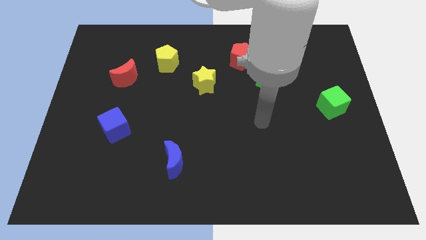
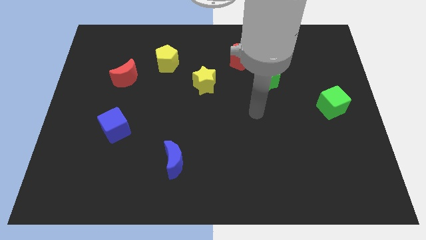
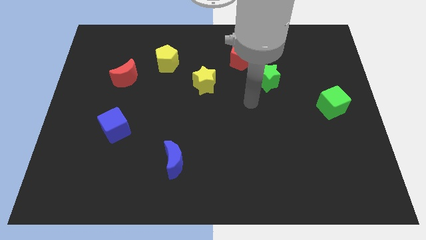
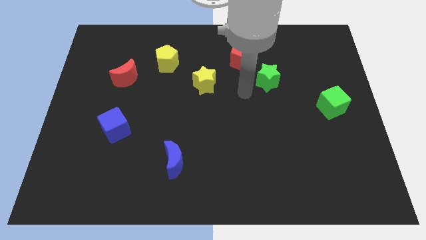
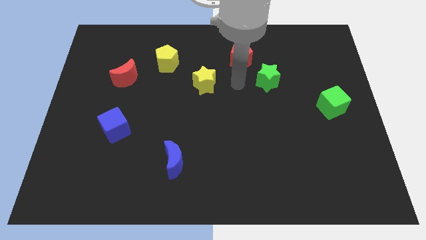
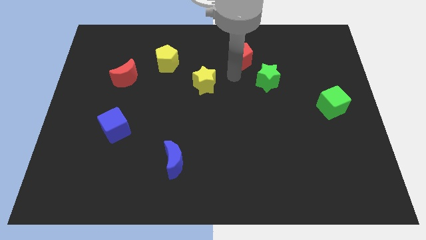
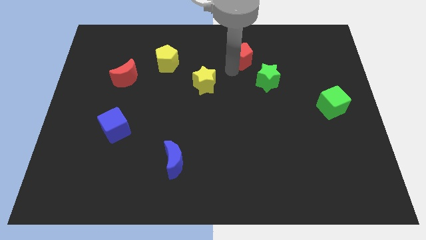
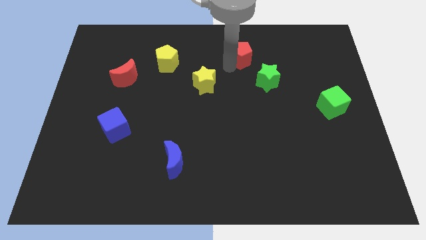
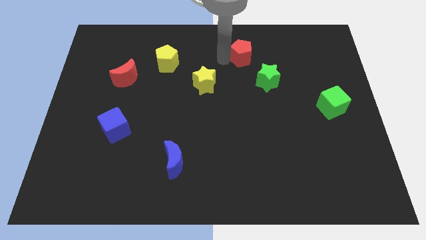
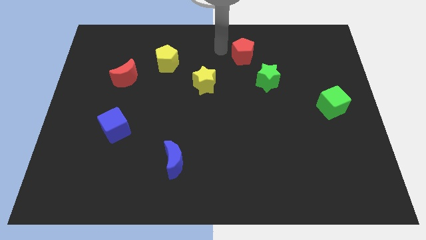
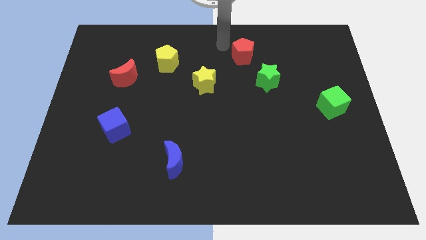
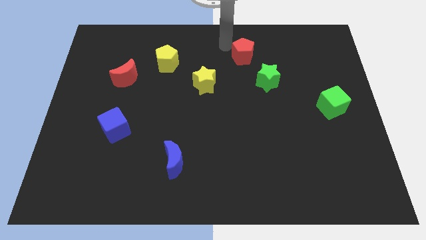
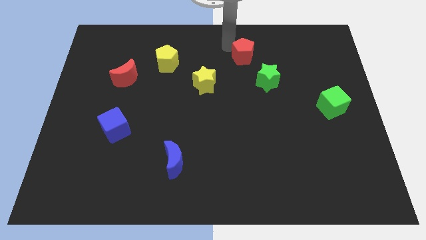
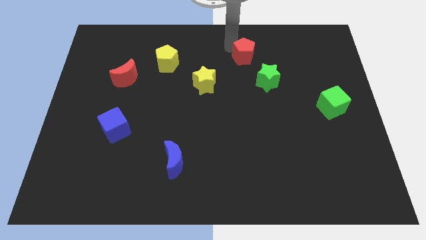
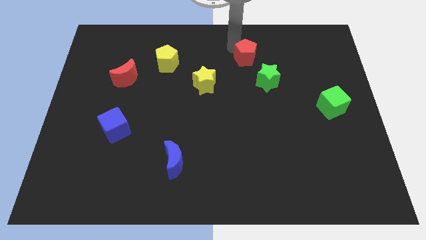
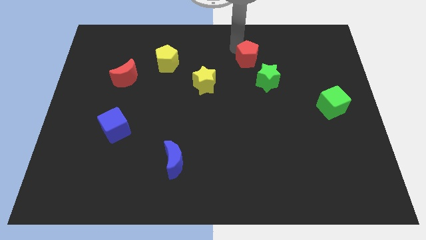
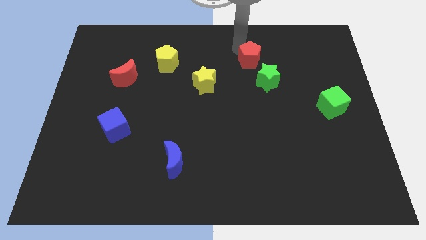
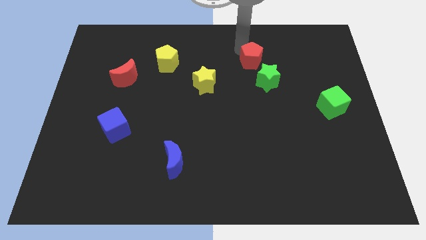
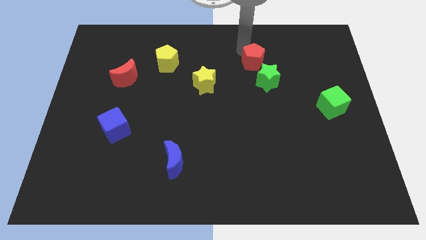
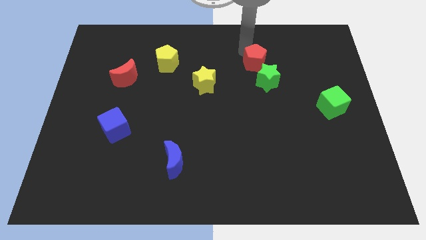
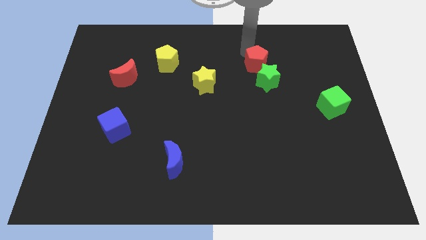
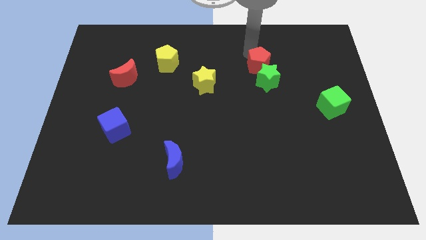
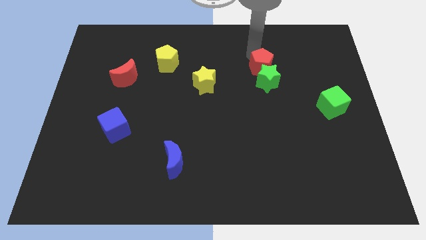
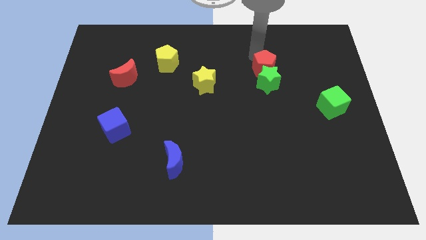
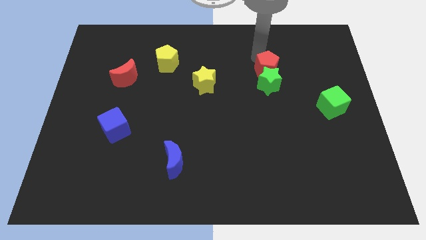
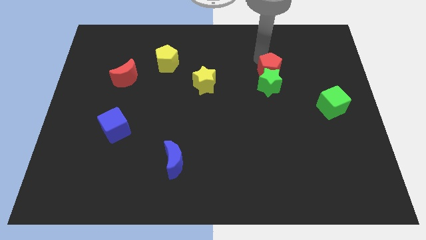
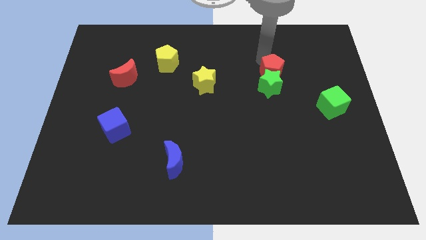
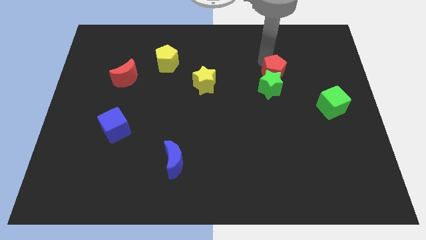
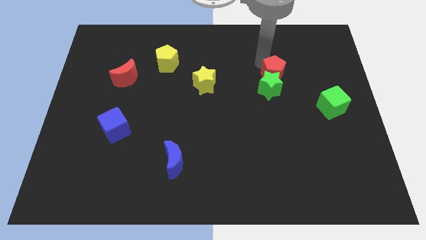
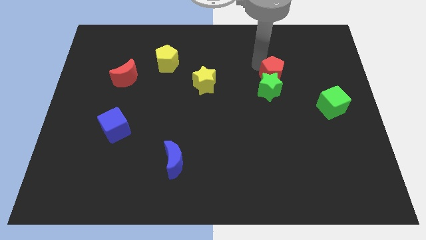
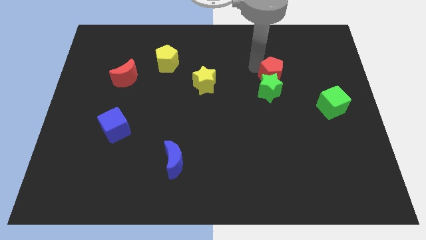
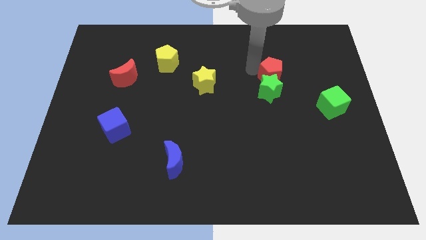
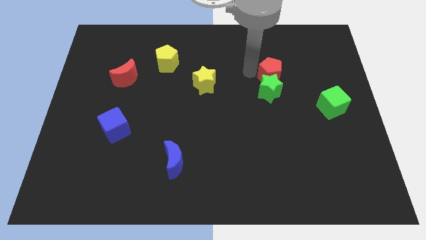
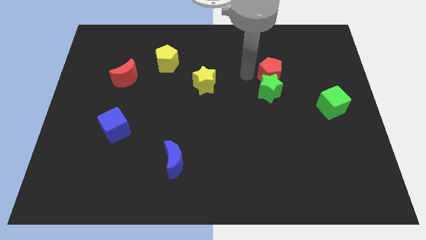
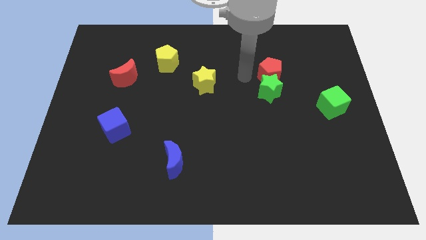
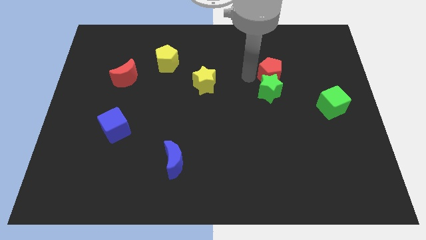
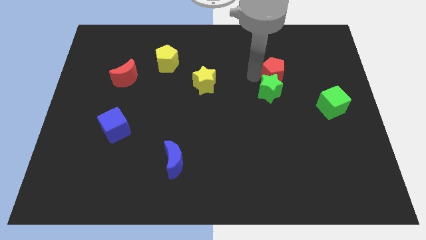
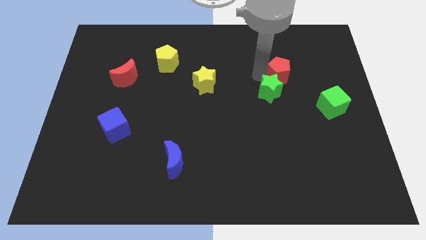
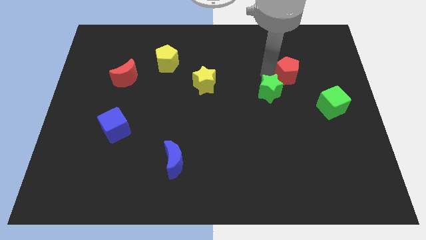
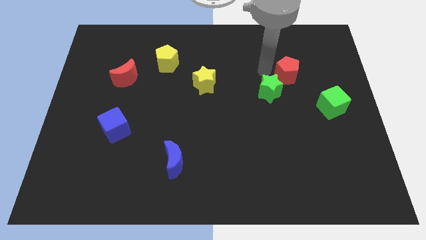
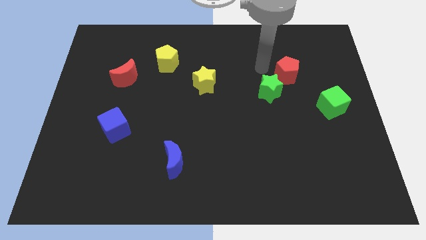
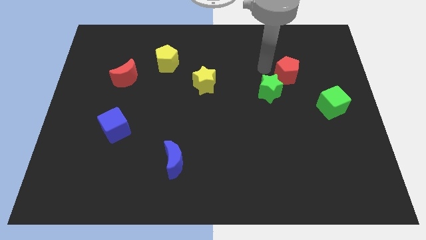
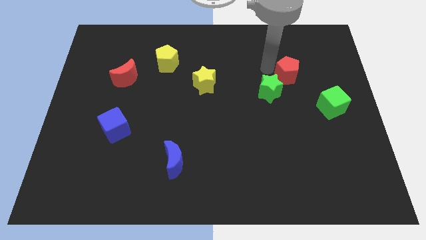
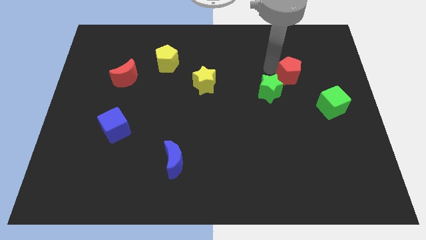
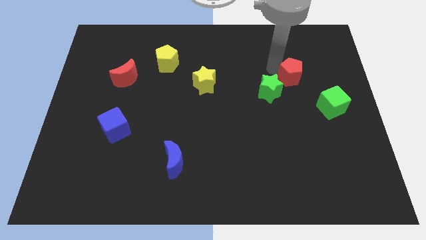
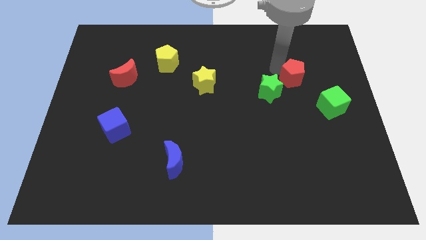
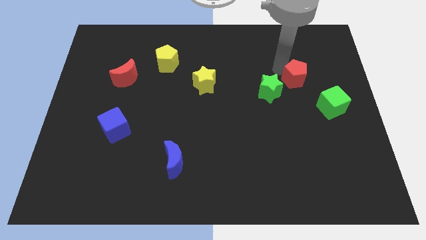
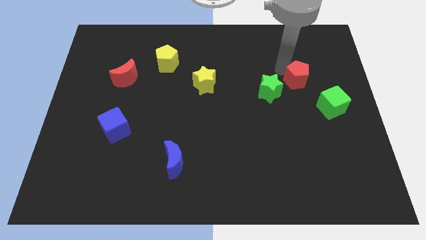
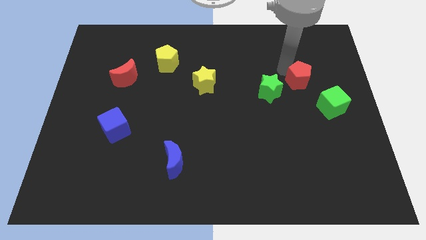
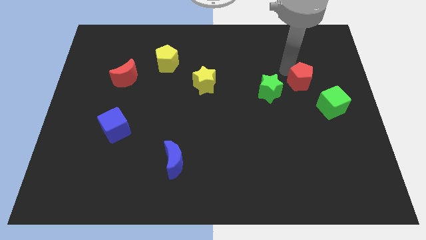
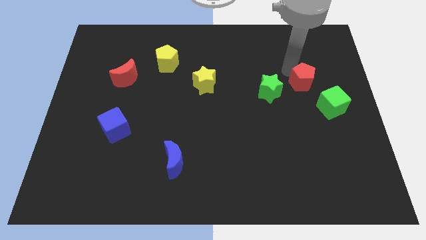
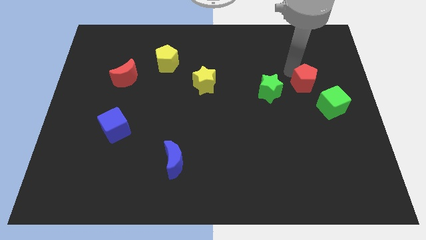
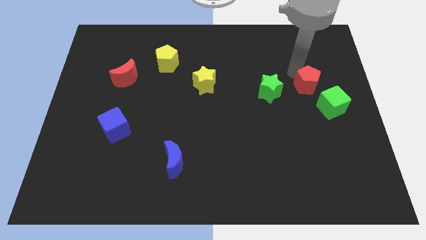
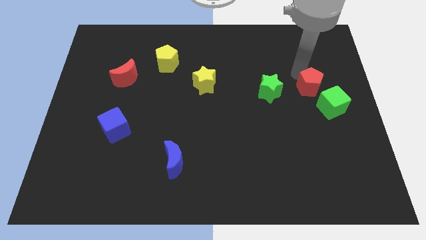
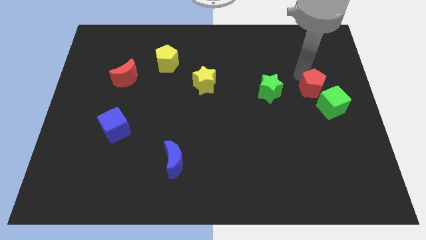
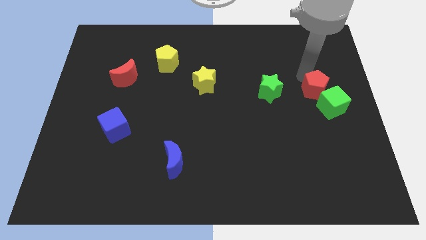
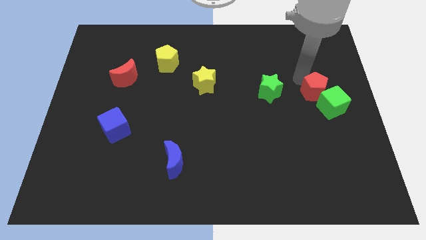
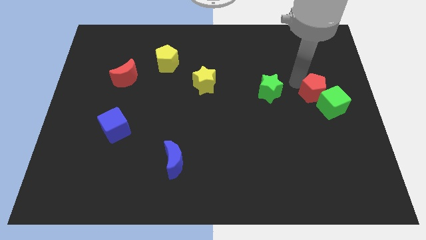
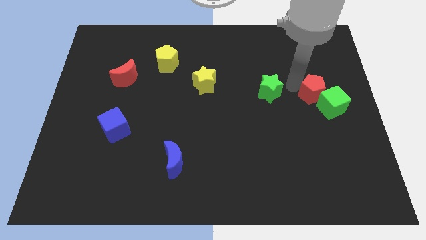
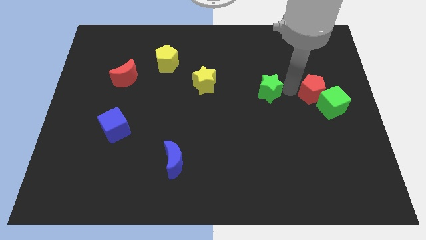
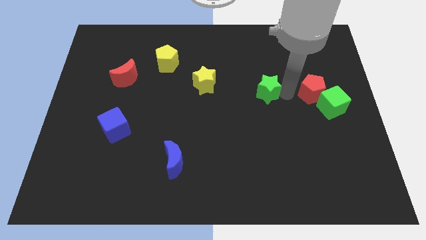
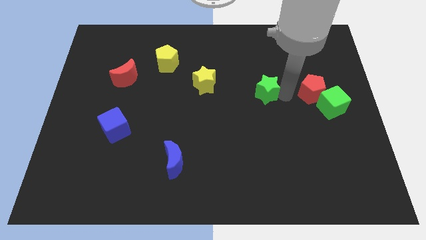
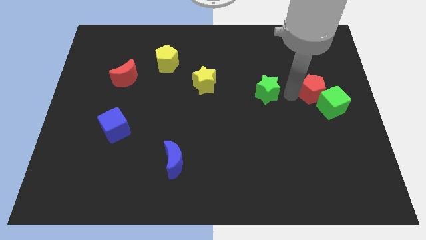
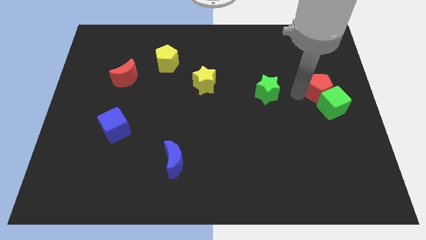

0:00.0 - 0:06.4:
push the red pentagon to the right side

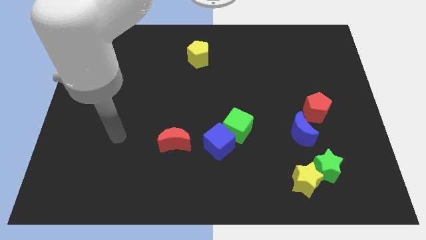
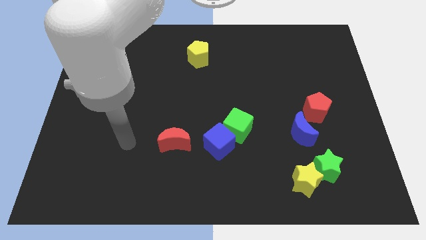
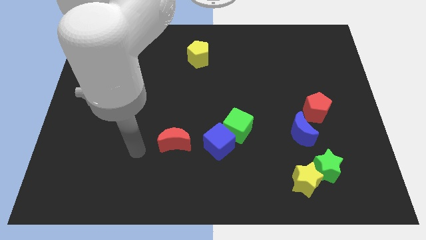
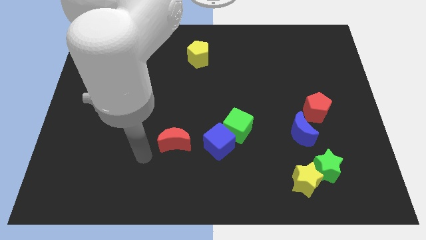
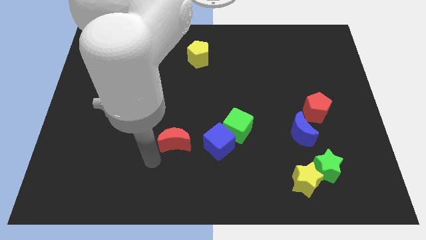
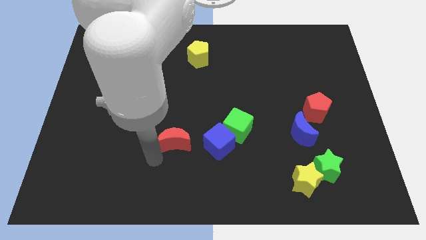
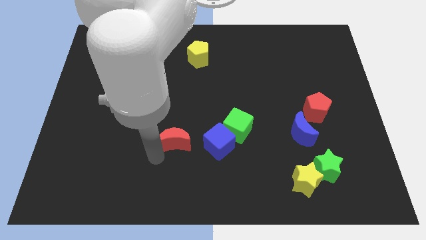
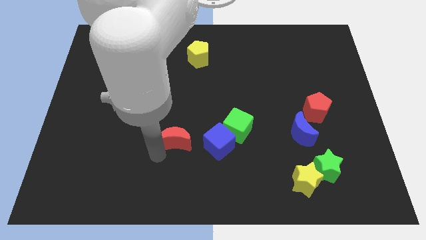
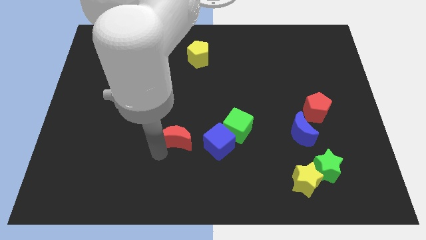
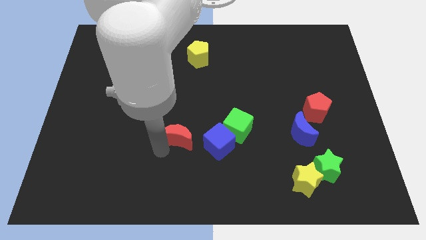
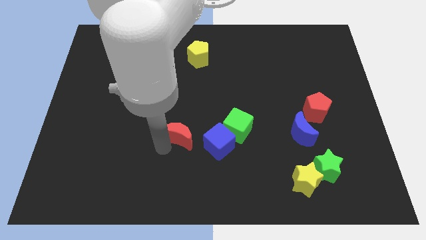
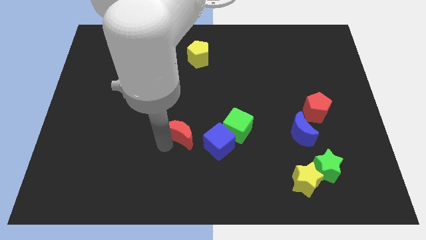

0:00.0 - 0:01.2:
push the red moon to the middle
